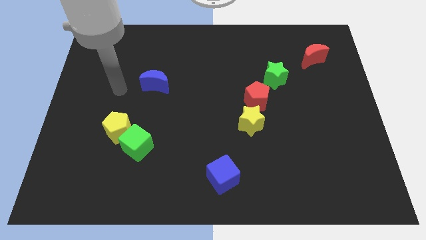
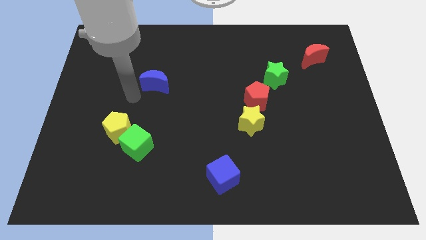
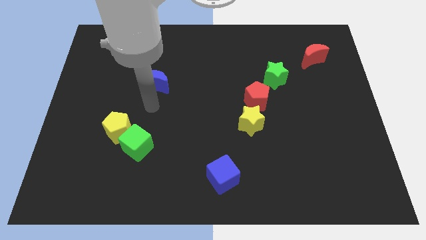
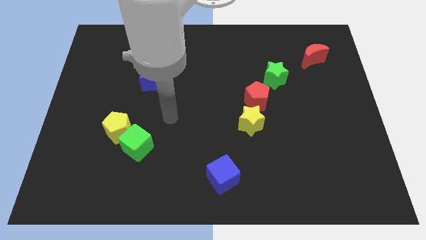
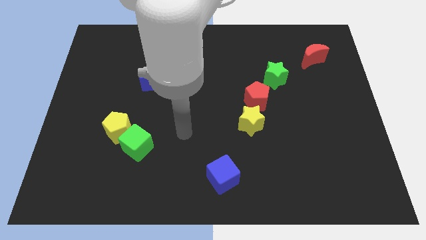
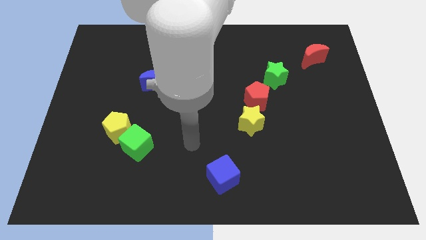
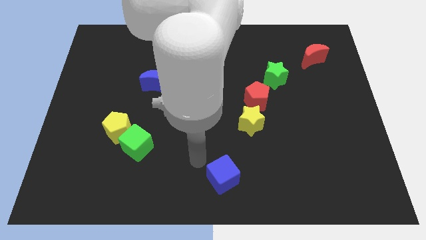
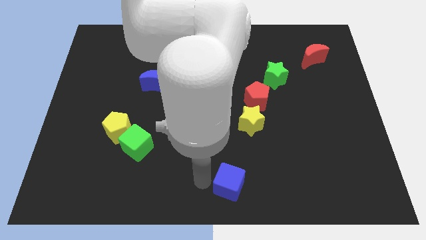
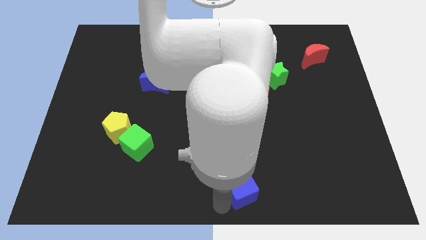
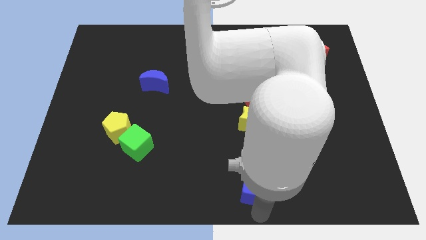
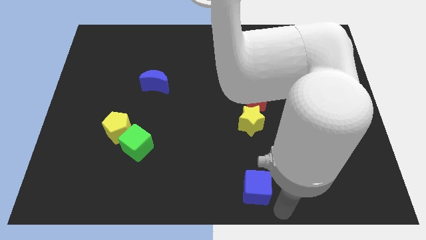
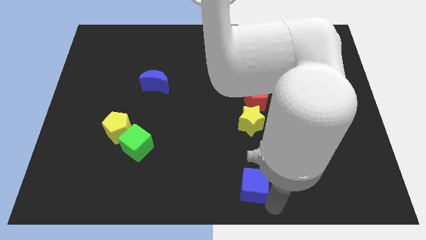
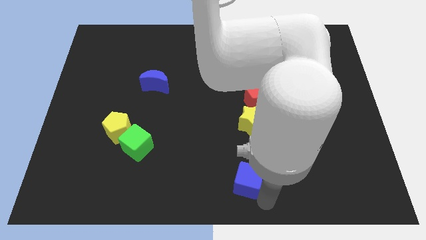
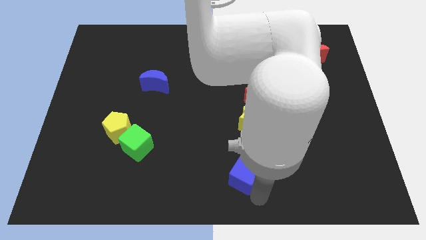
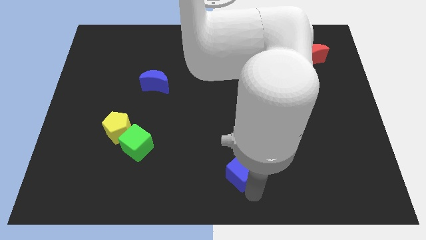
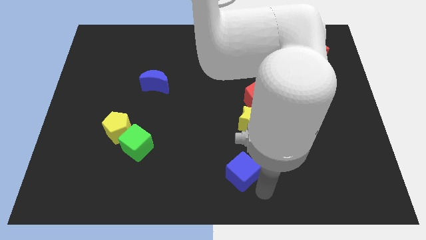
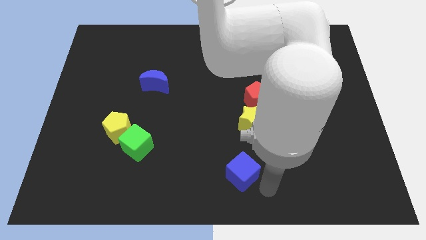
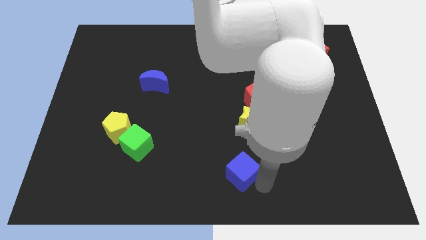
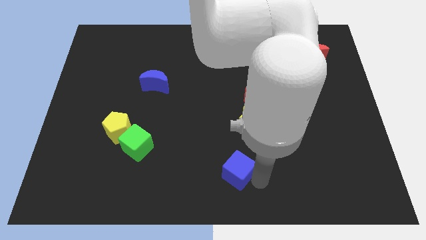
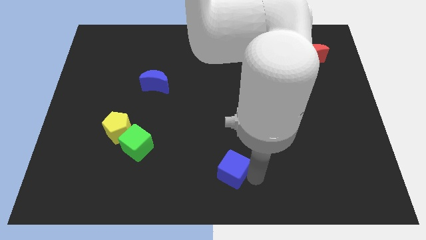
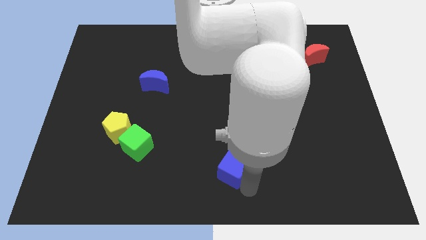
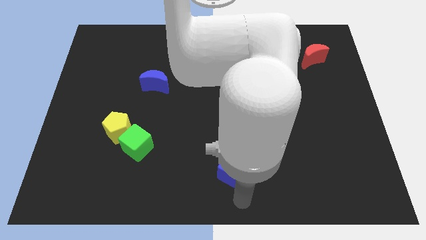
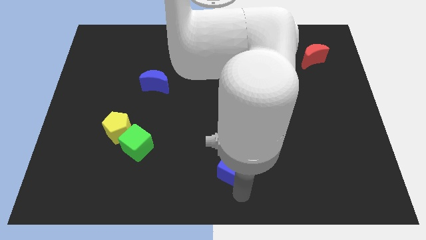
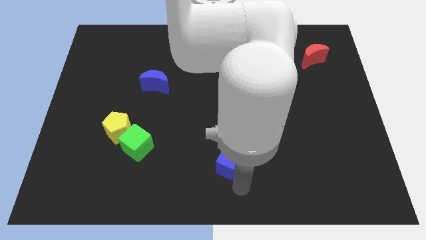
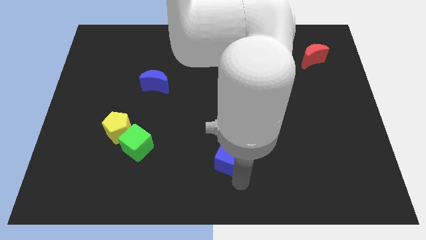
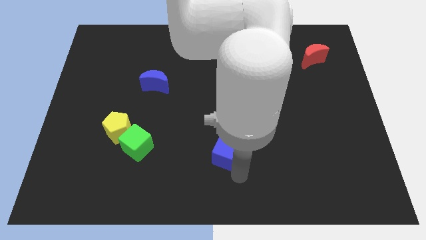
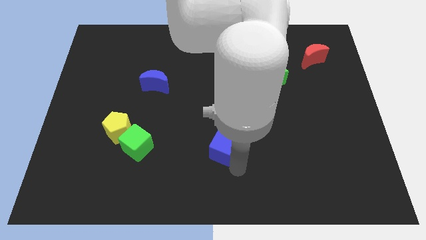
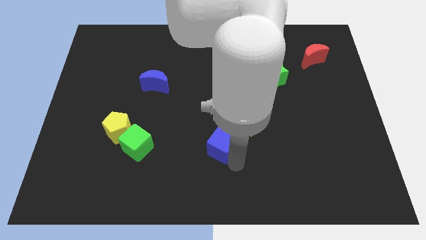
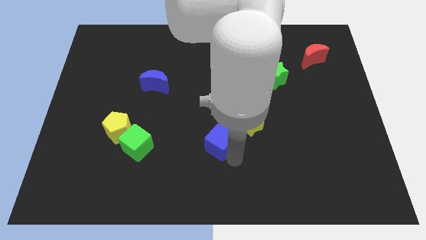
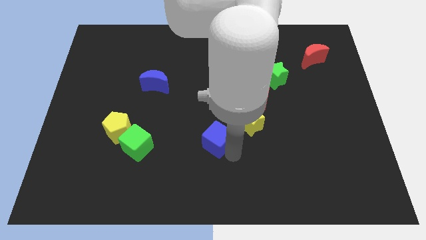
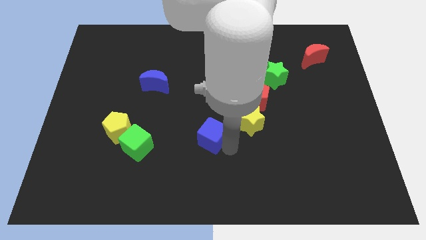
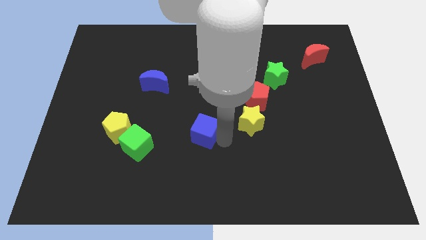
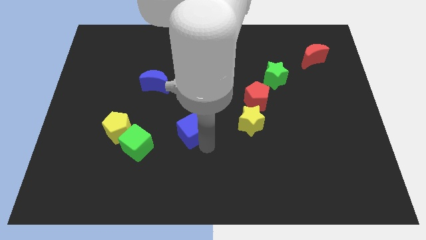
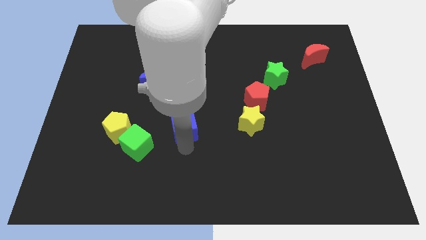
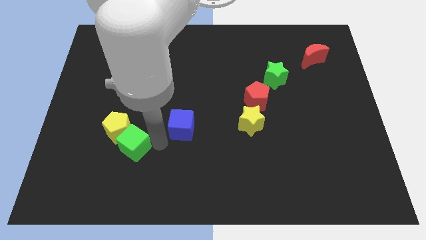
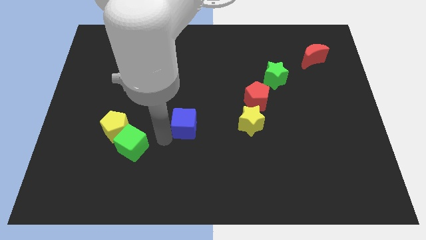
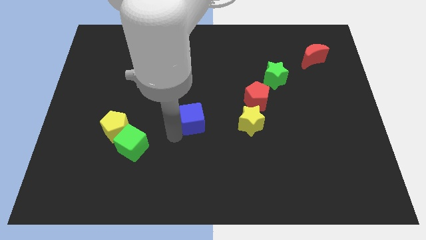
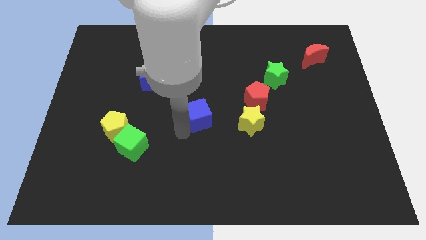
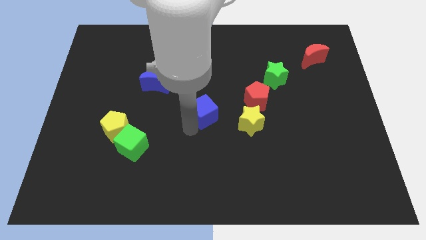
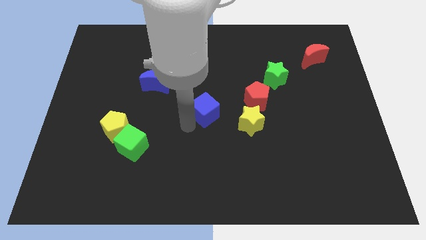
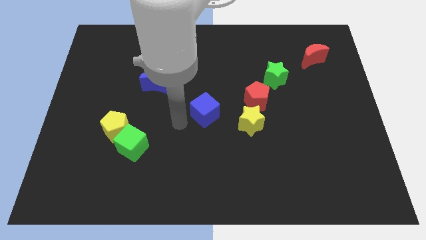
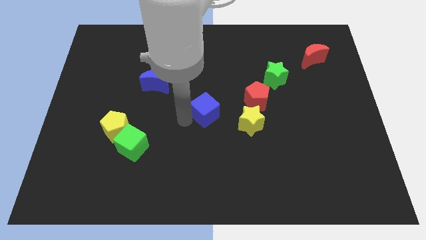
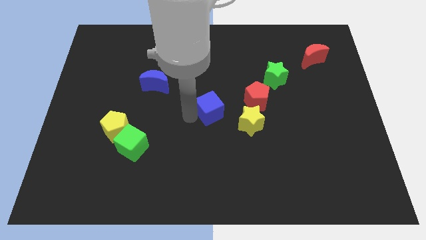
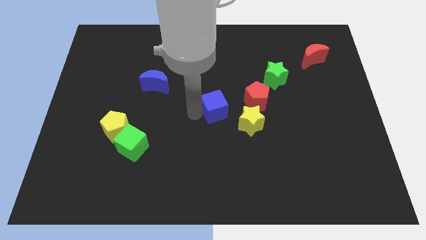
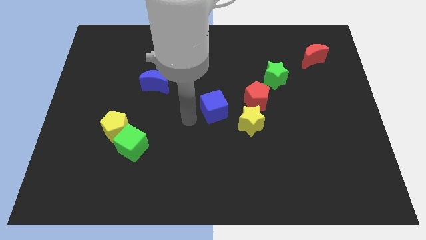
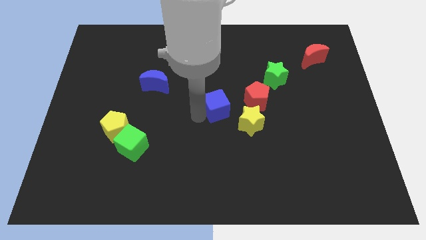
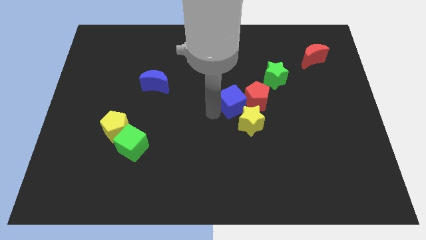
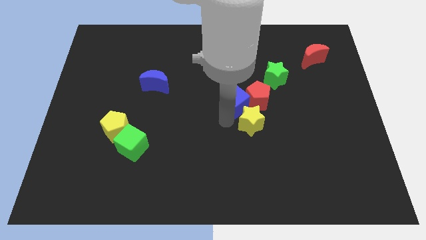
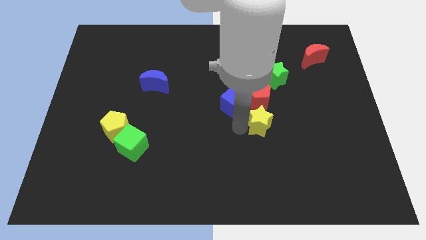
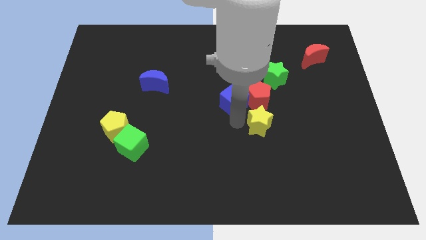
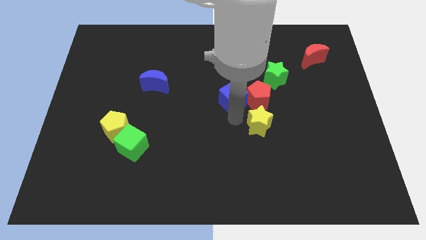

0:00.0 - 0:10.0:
push the blue cube upwards

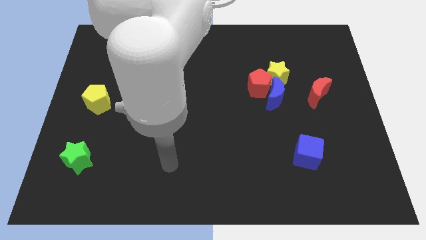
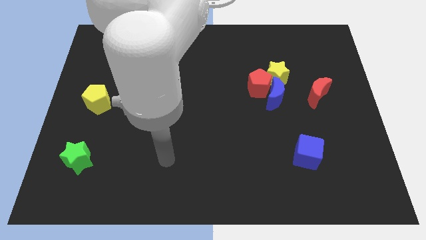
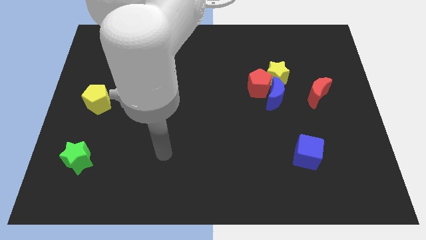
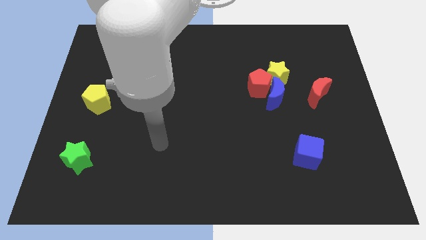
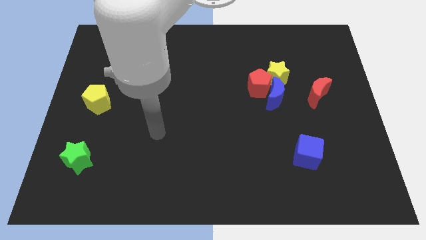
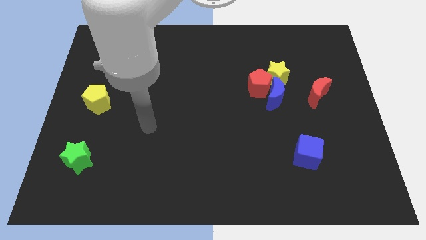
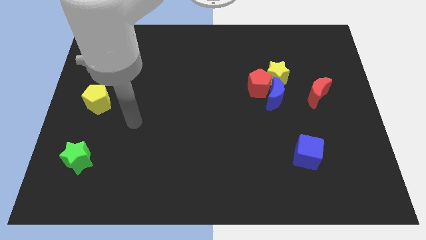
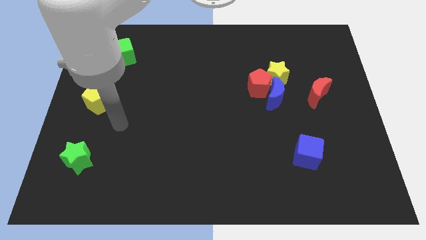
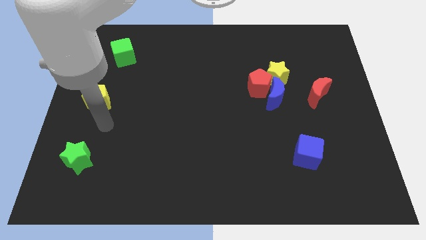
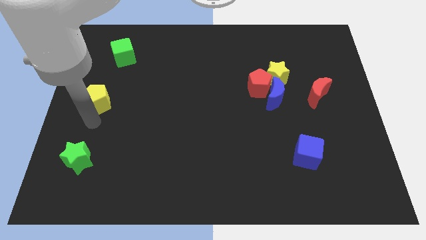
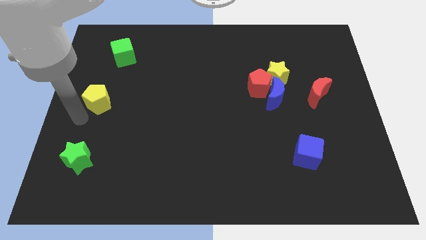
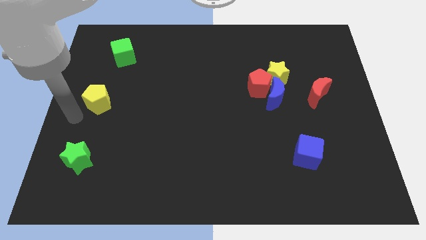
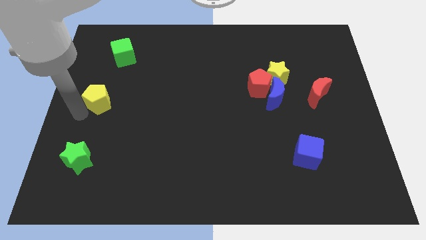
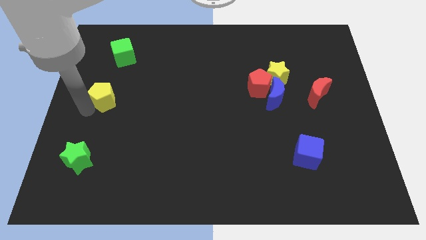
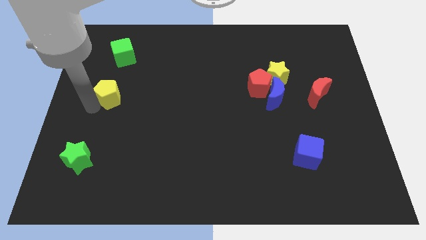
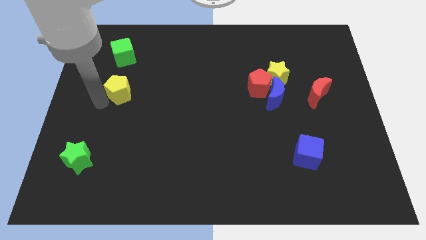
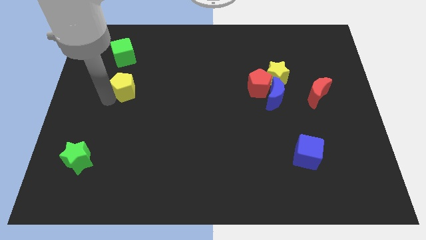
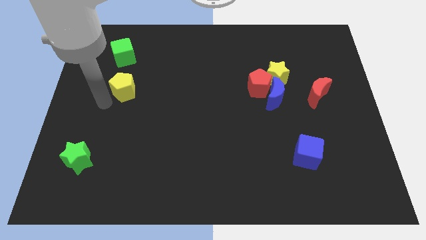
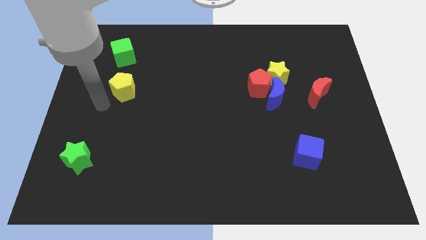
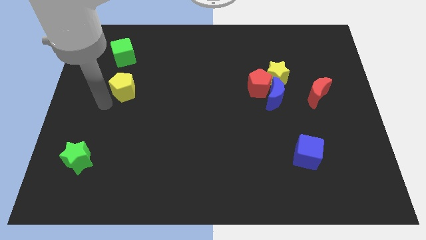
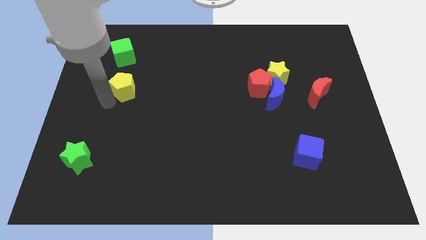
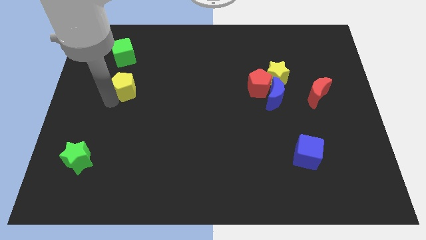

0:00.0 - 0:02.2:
slightly slide the yellow pentagon up and right

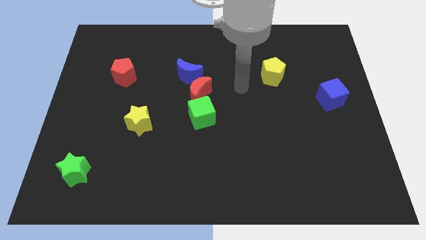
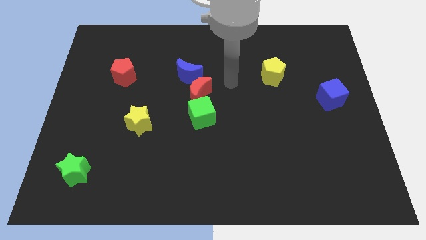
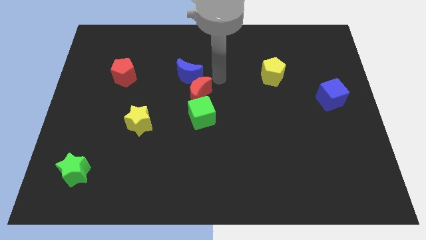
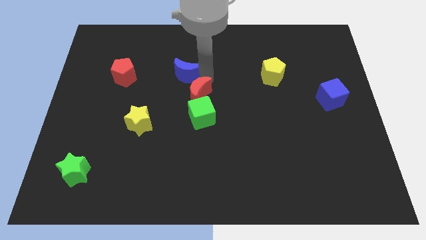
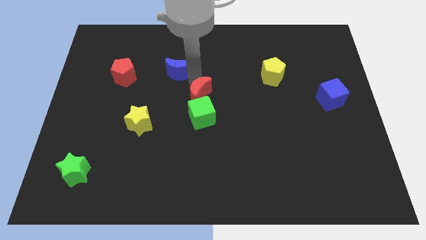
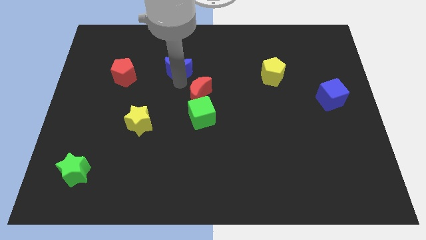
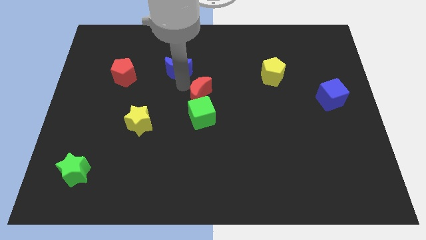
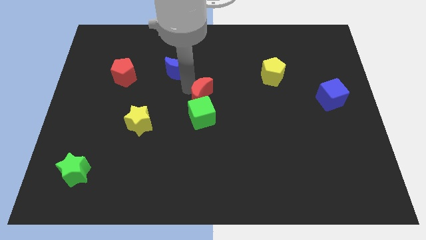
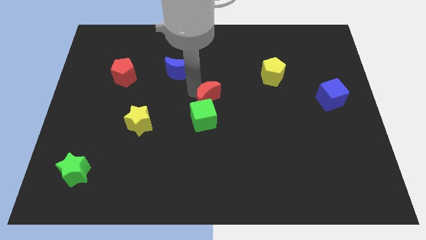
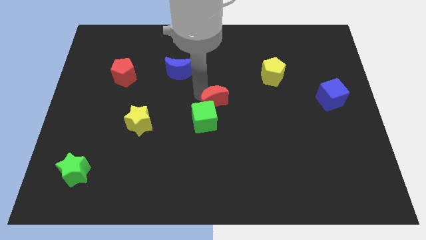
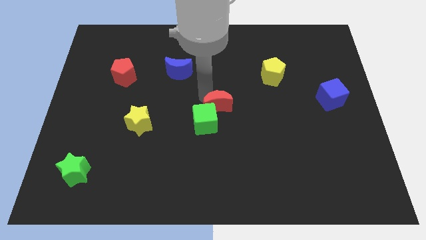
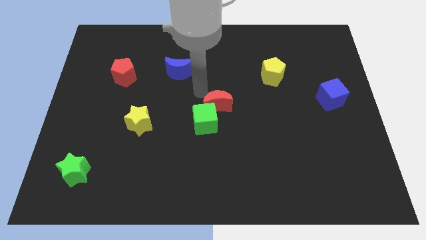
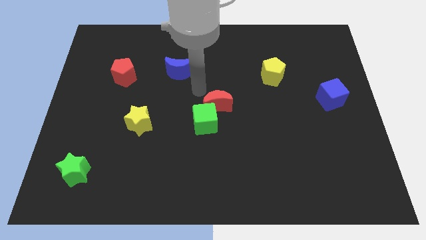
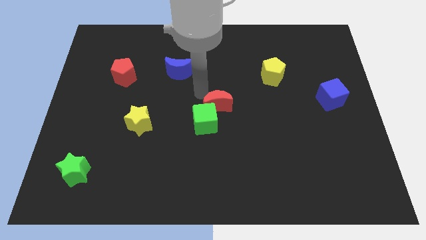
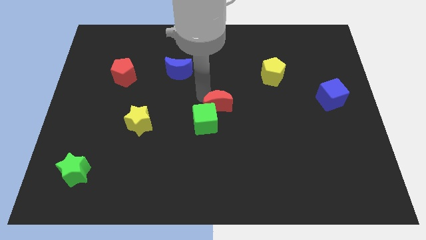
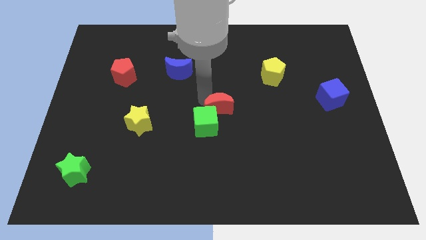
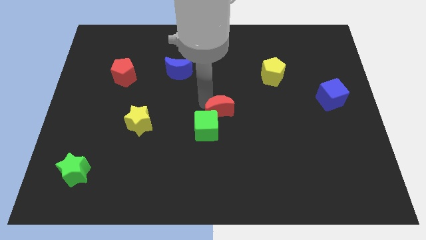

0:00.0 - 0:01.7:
slightly push the red moon down and right

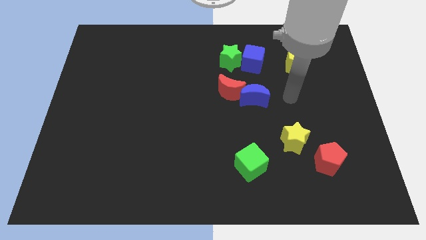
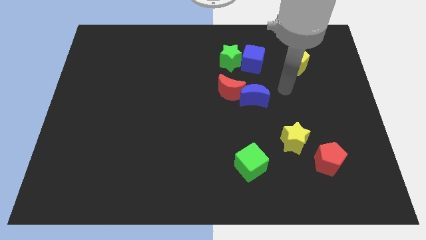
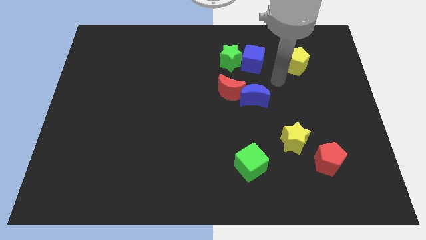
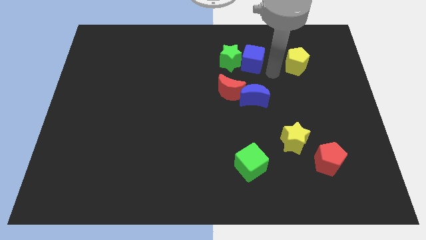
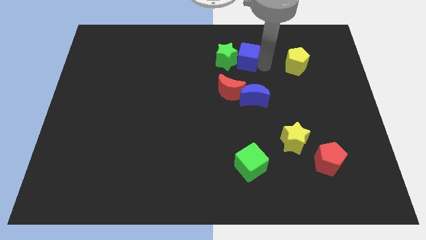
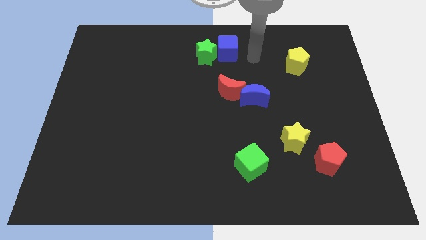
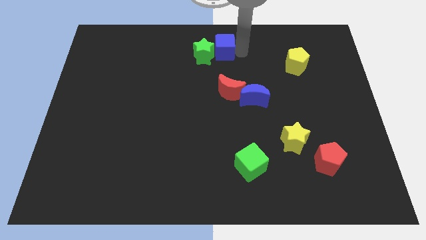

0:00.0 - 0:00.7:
push the green star a little left
